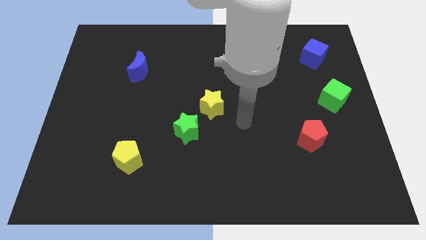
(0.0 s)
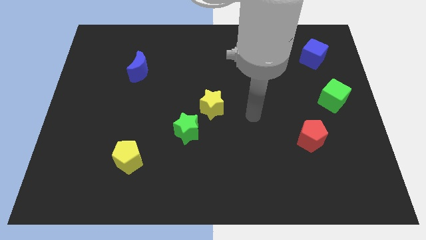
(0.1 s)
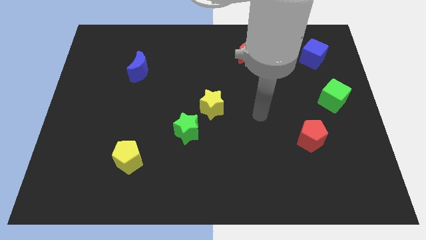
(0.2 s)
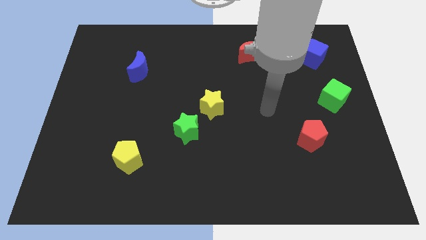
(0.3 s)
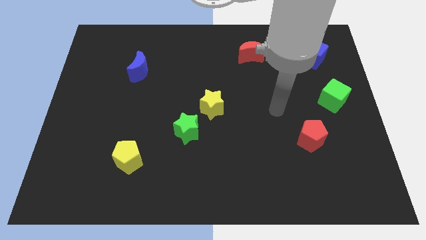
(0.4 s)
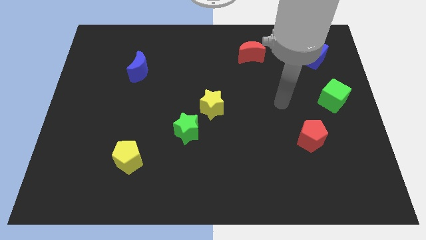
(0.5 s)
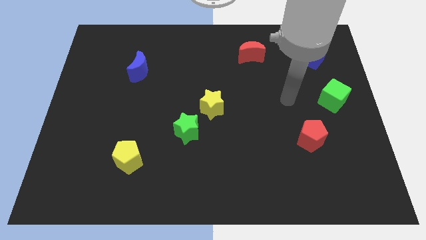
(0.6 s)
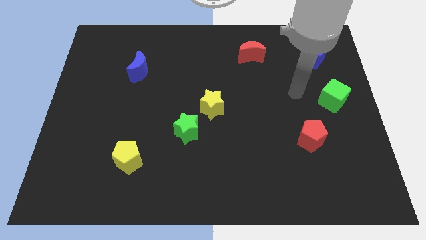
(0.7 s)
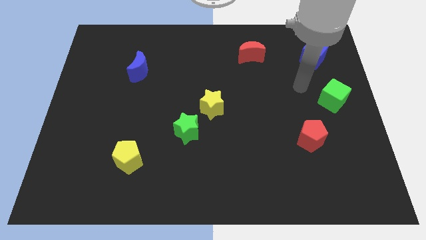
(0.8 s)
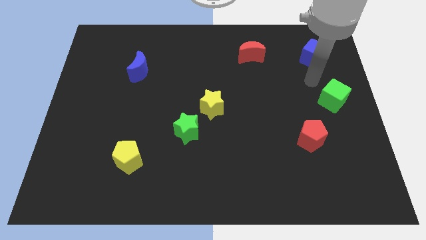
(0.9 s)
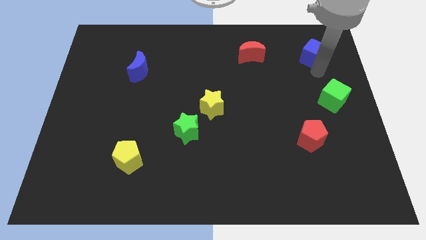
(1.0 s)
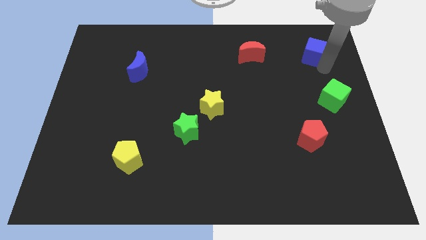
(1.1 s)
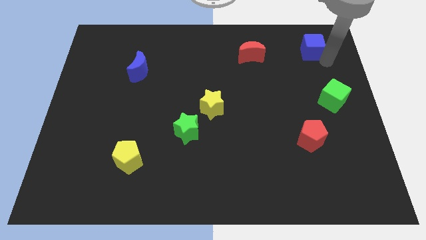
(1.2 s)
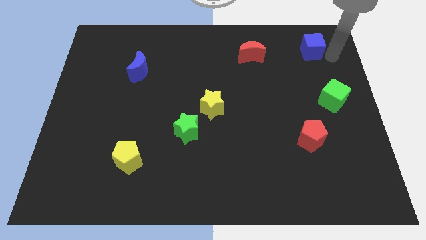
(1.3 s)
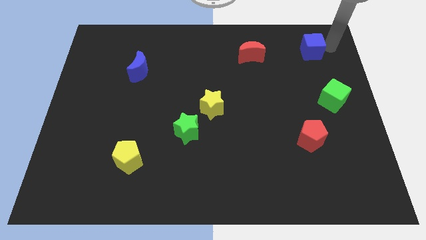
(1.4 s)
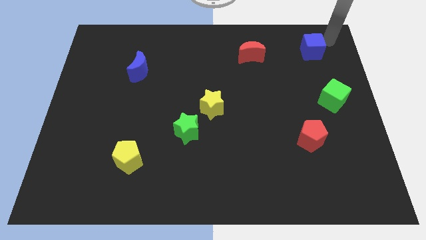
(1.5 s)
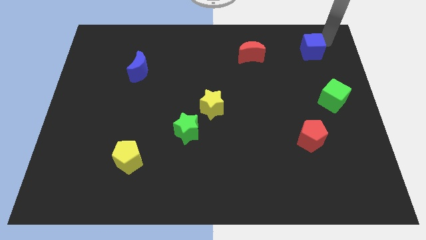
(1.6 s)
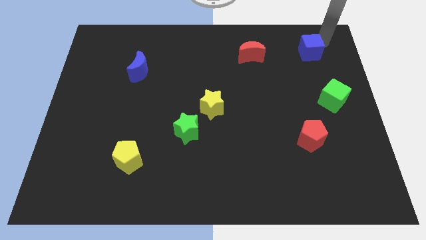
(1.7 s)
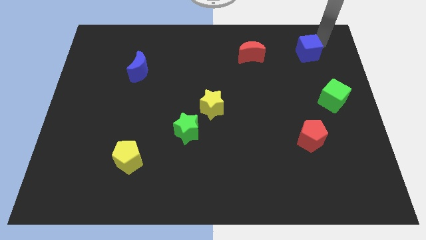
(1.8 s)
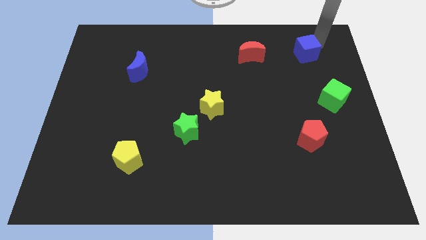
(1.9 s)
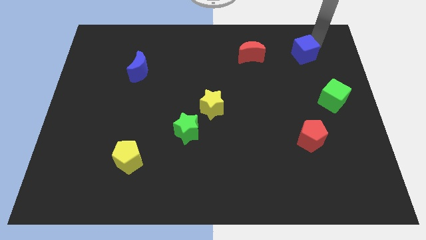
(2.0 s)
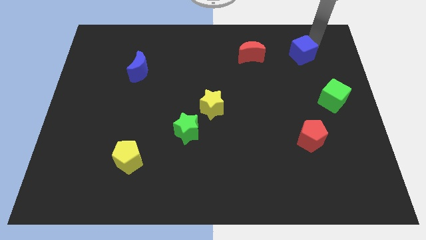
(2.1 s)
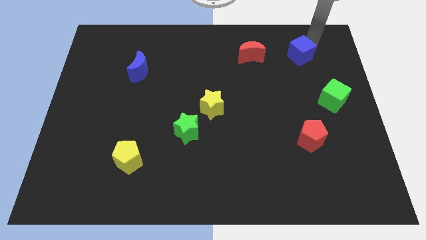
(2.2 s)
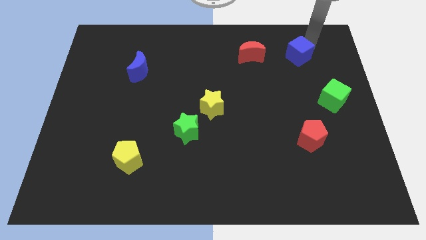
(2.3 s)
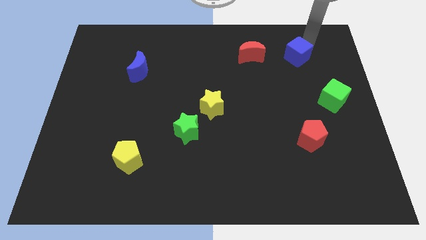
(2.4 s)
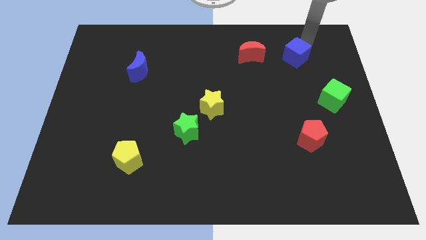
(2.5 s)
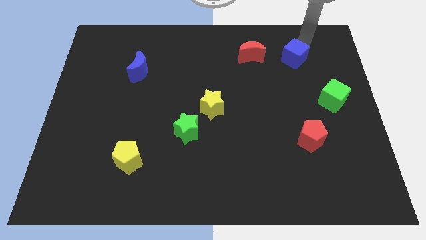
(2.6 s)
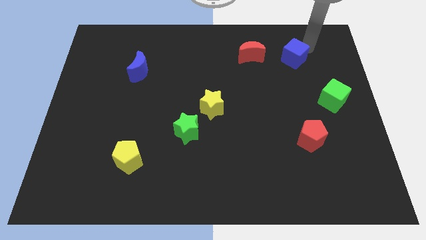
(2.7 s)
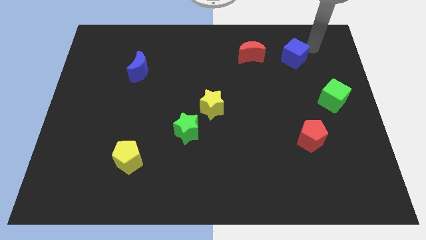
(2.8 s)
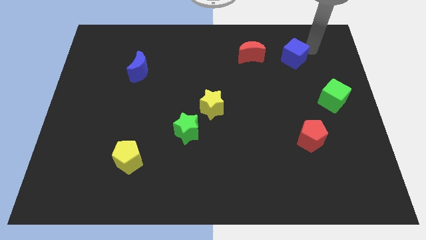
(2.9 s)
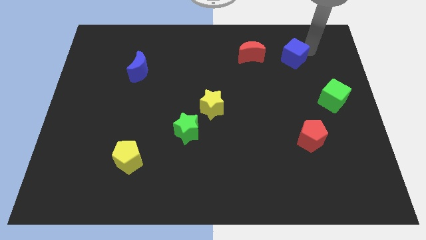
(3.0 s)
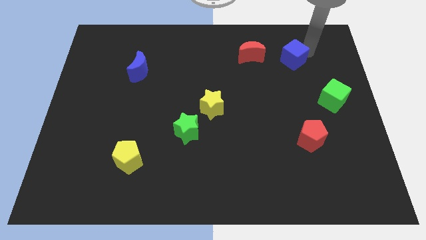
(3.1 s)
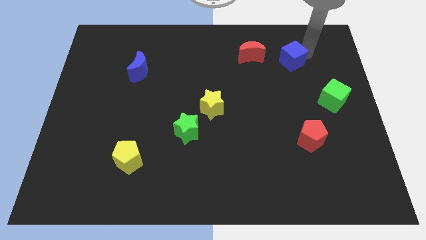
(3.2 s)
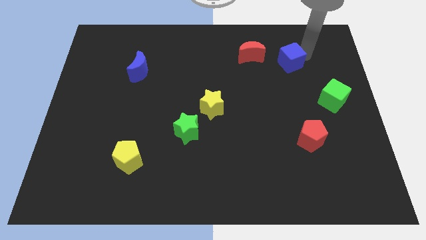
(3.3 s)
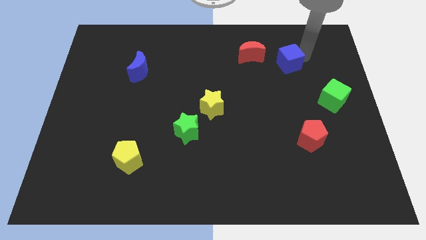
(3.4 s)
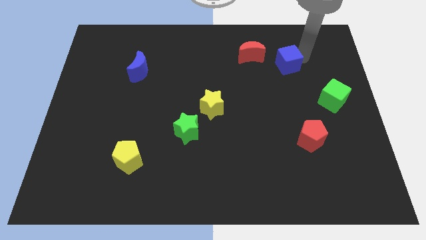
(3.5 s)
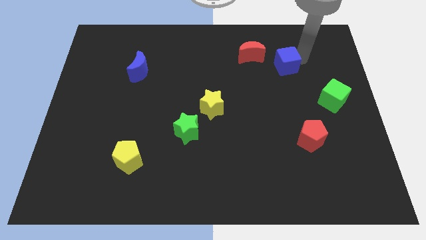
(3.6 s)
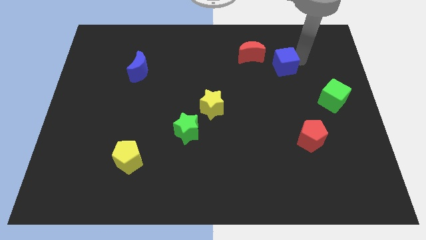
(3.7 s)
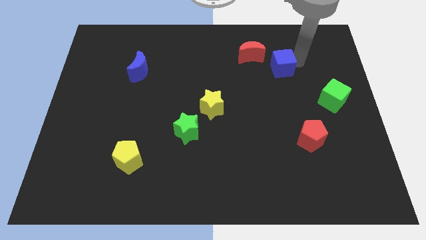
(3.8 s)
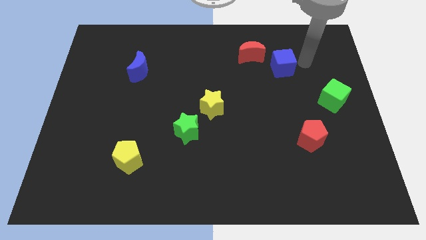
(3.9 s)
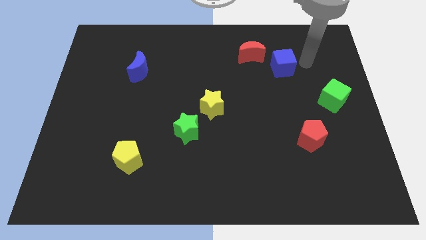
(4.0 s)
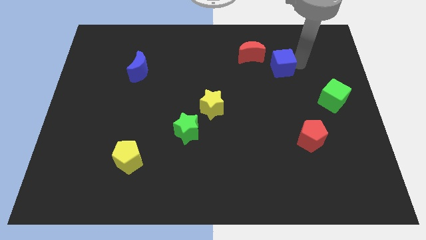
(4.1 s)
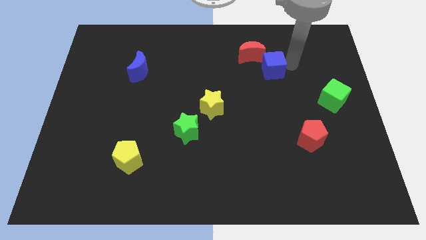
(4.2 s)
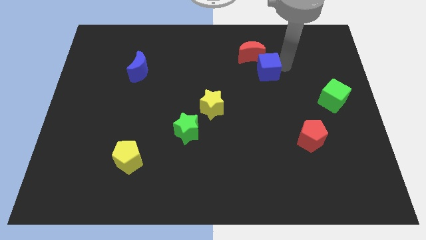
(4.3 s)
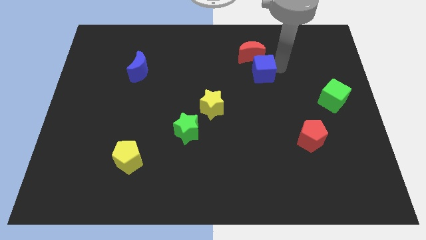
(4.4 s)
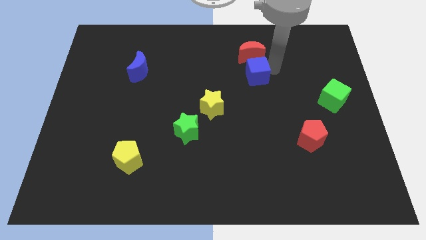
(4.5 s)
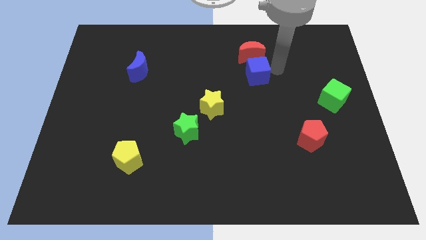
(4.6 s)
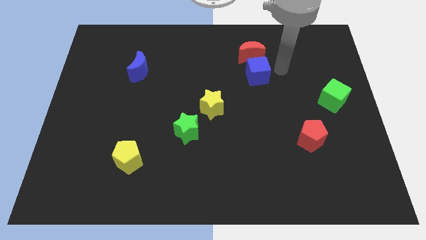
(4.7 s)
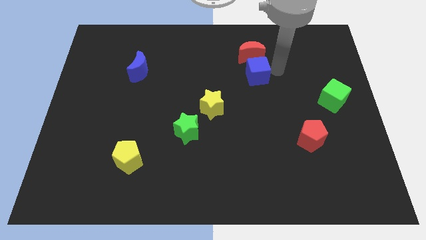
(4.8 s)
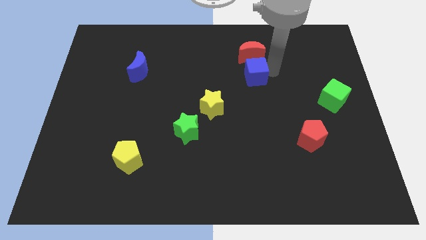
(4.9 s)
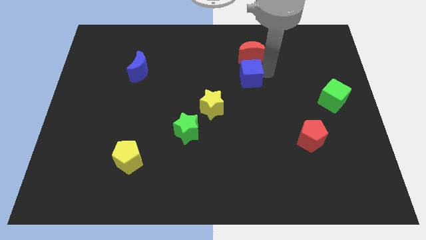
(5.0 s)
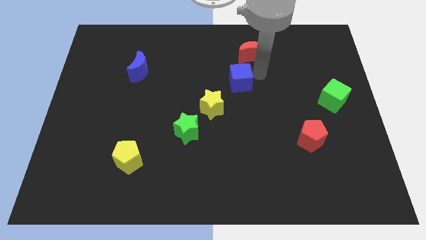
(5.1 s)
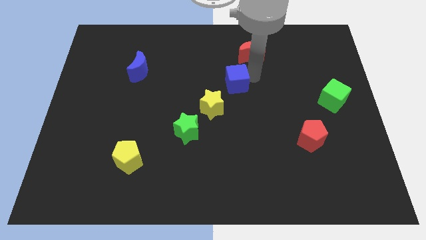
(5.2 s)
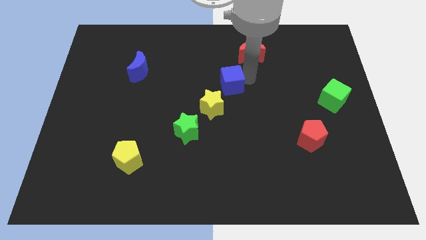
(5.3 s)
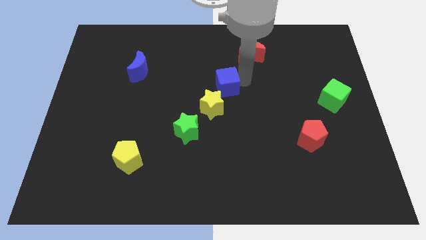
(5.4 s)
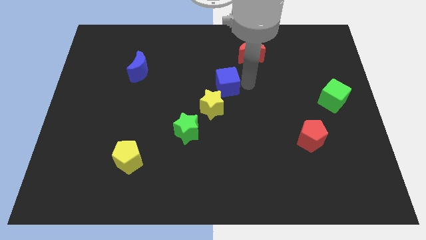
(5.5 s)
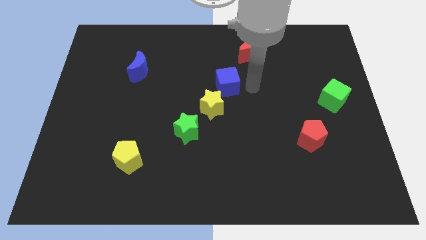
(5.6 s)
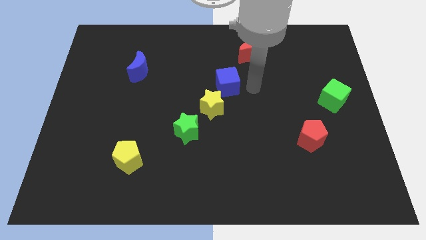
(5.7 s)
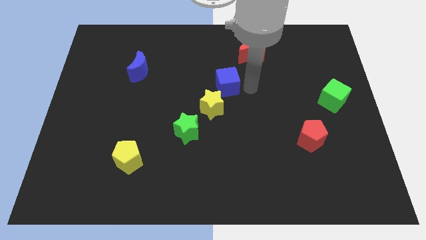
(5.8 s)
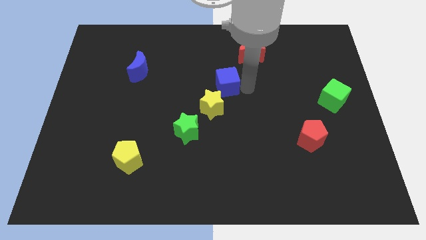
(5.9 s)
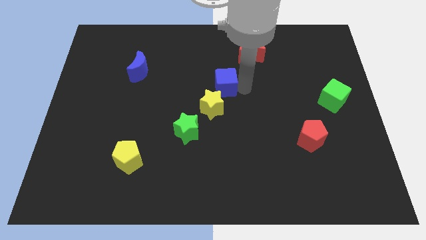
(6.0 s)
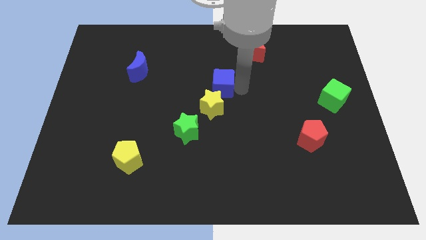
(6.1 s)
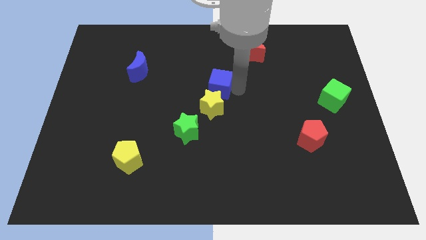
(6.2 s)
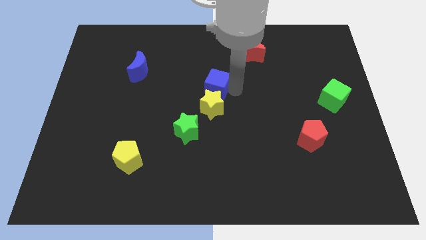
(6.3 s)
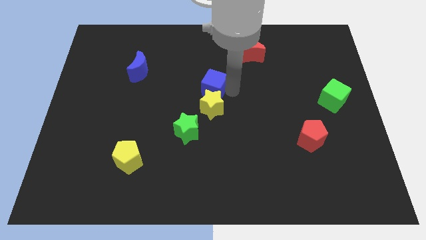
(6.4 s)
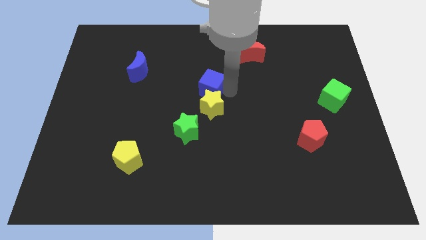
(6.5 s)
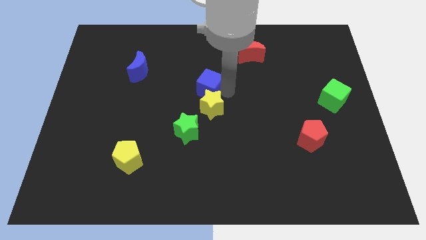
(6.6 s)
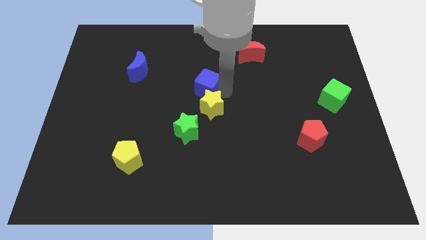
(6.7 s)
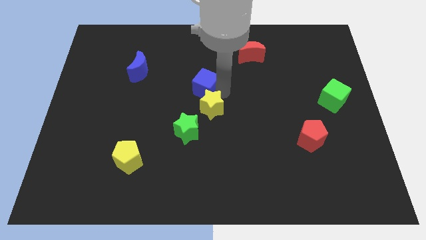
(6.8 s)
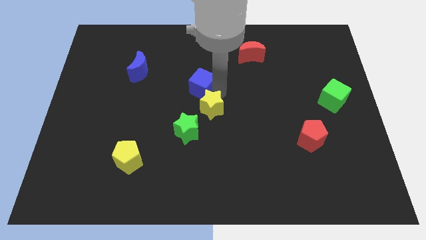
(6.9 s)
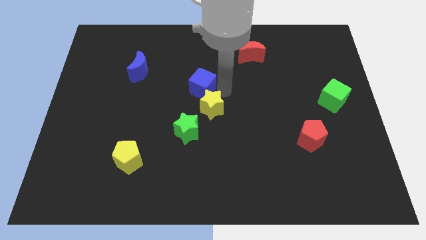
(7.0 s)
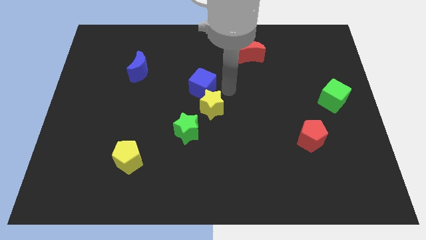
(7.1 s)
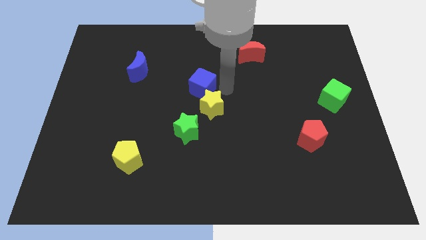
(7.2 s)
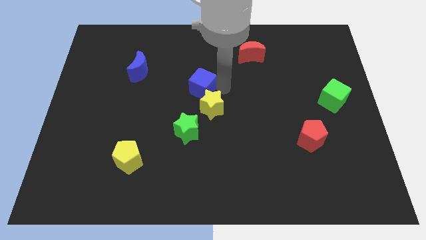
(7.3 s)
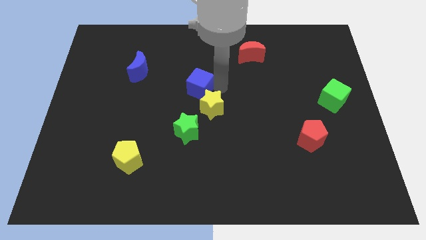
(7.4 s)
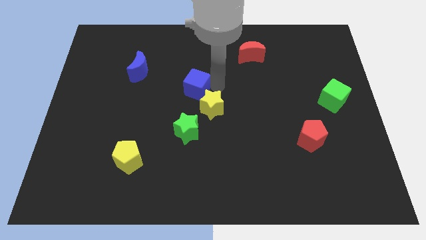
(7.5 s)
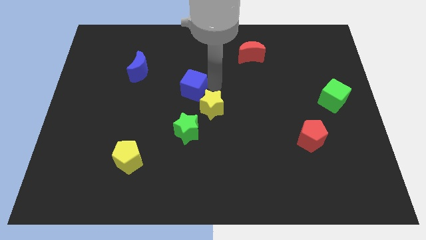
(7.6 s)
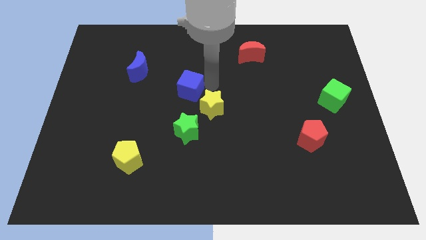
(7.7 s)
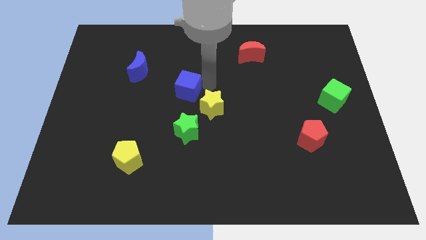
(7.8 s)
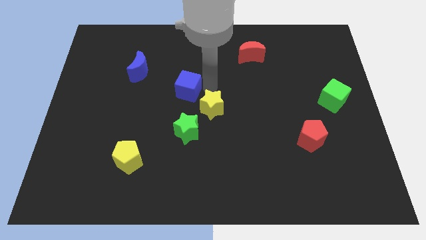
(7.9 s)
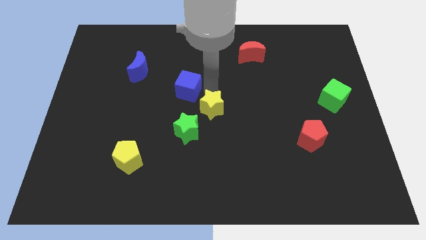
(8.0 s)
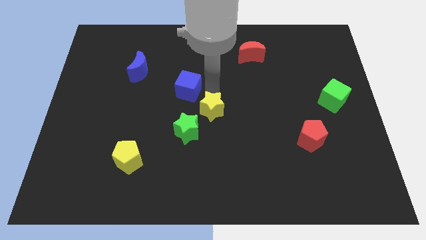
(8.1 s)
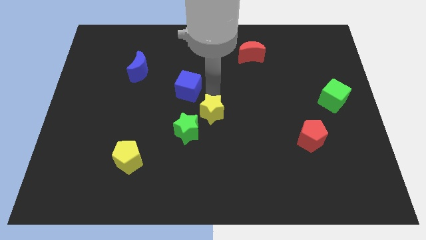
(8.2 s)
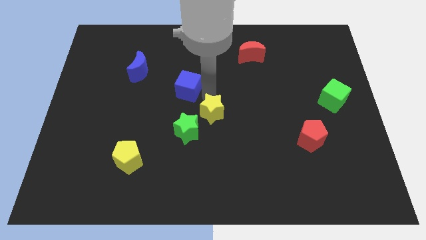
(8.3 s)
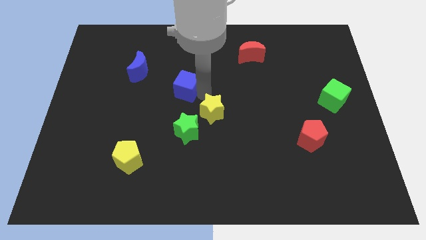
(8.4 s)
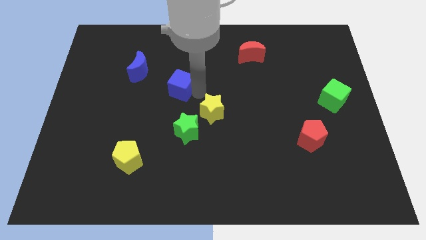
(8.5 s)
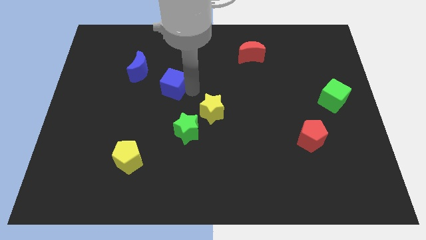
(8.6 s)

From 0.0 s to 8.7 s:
put the blue cube to the bottom right side of the blue moon
